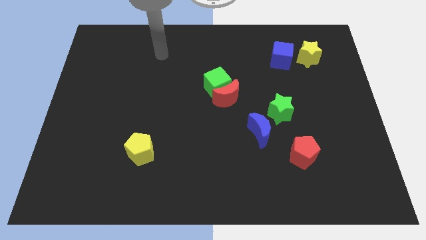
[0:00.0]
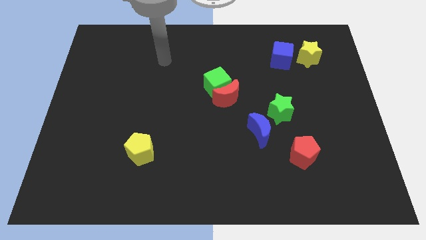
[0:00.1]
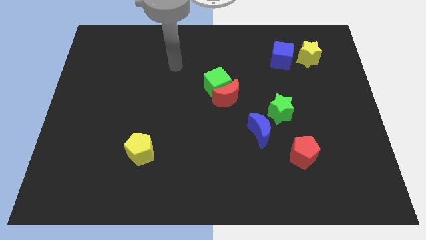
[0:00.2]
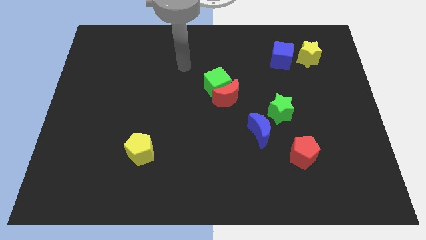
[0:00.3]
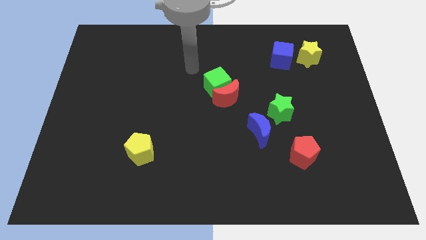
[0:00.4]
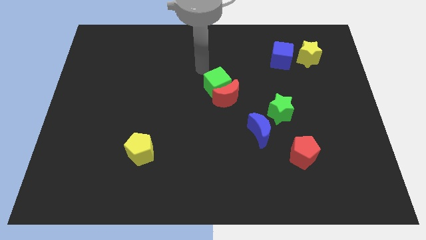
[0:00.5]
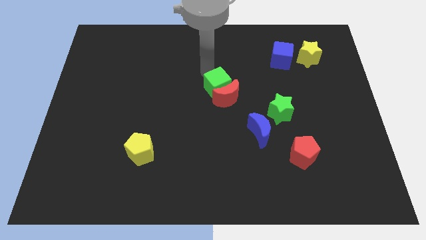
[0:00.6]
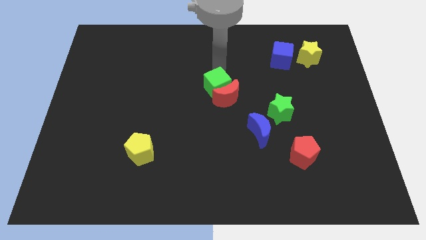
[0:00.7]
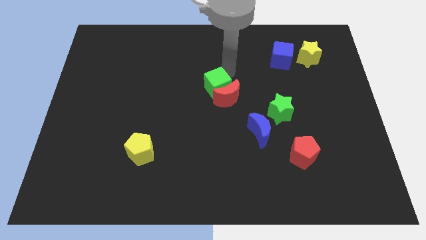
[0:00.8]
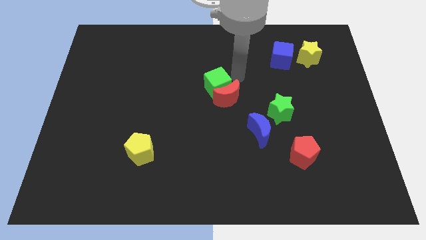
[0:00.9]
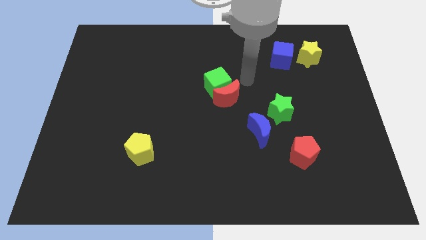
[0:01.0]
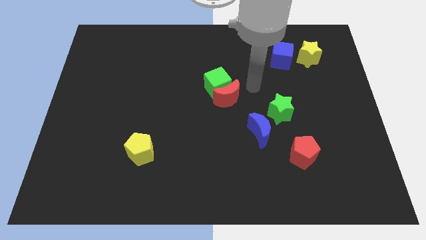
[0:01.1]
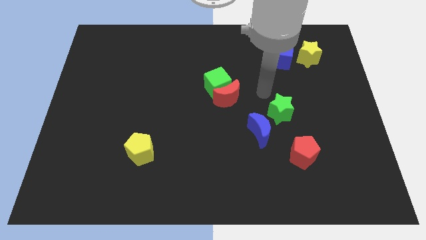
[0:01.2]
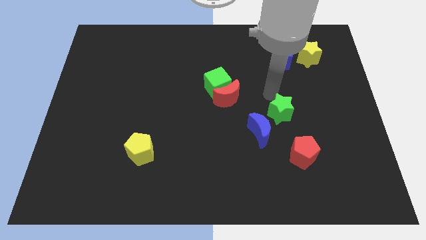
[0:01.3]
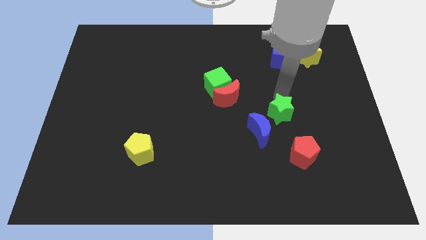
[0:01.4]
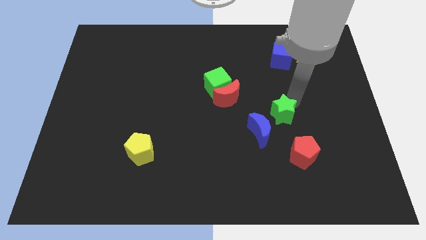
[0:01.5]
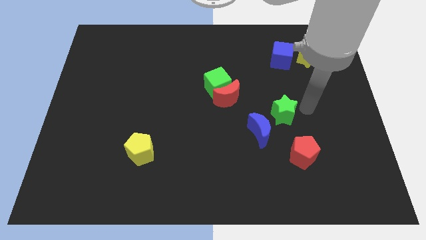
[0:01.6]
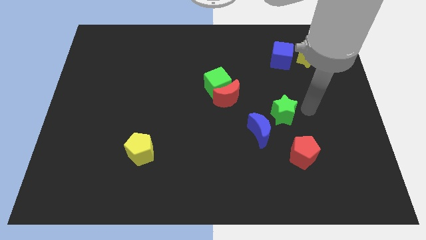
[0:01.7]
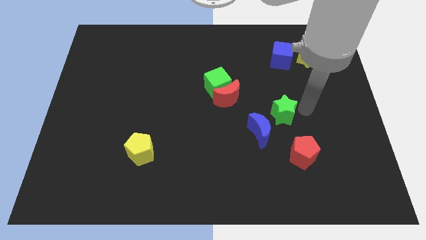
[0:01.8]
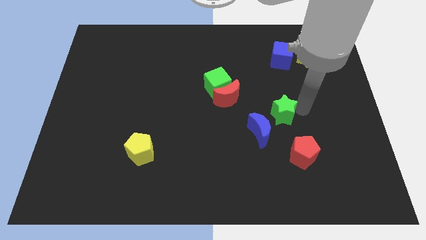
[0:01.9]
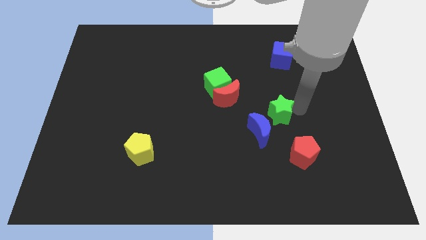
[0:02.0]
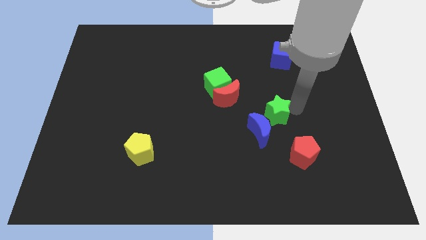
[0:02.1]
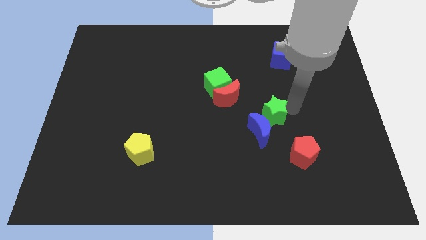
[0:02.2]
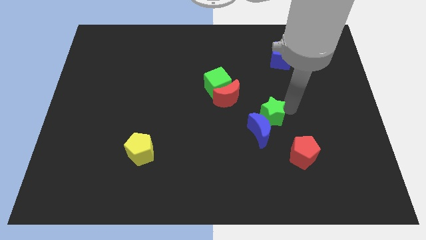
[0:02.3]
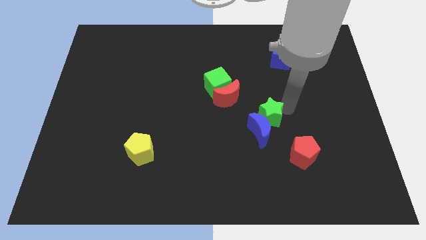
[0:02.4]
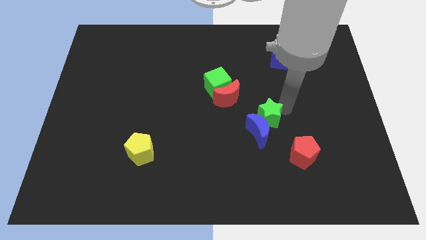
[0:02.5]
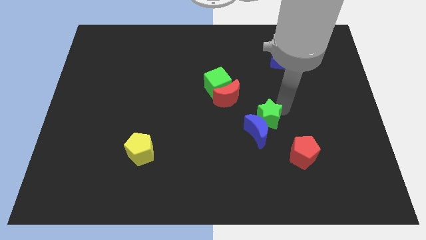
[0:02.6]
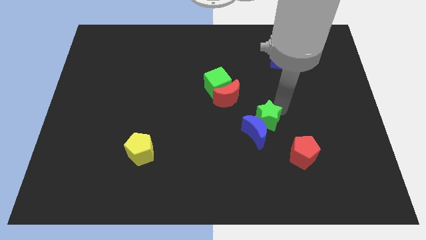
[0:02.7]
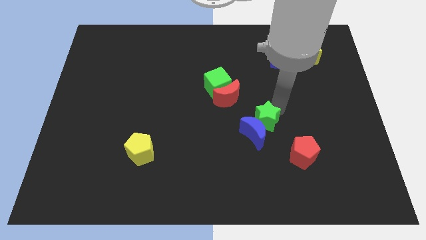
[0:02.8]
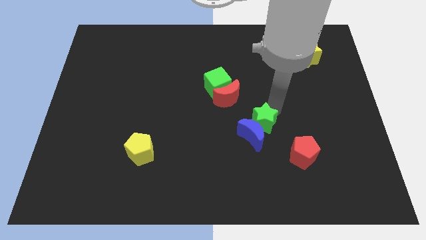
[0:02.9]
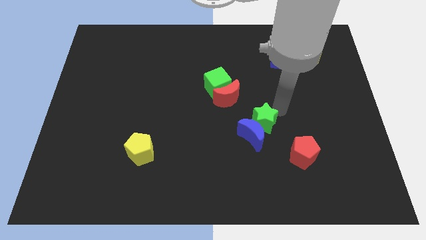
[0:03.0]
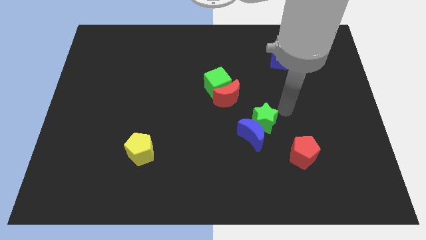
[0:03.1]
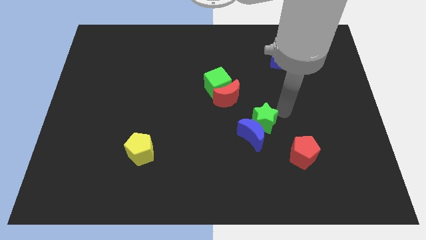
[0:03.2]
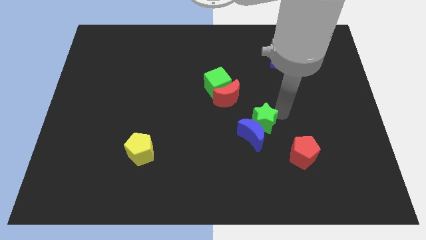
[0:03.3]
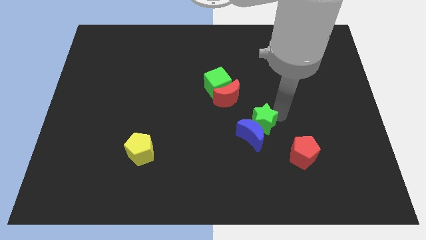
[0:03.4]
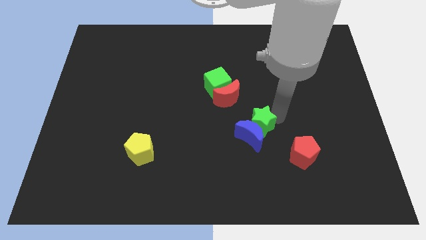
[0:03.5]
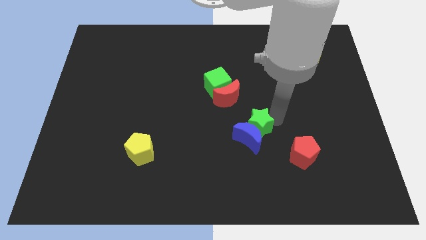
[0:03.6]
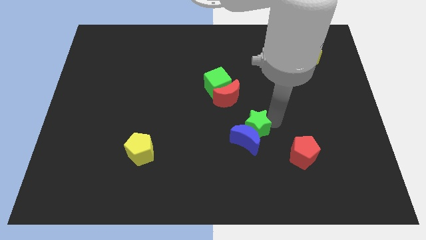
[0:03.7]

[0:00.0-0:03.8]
move the green star down and then to the left somewhat

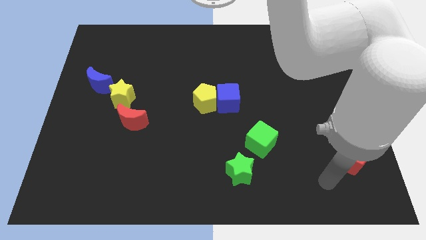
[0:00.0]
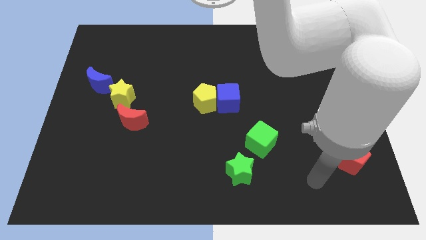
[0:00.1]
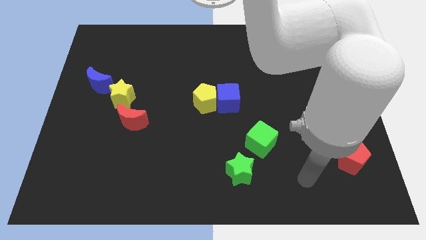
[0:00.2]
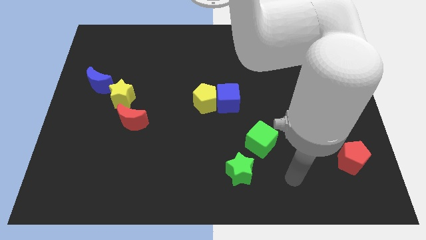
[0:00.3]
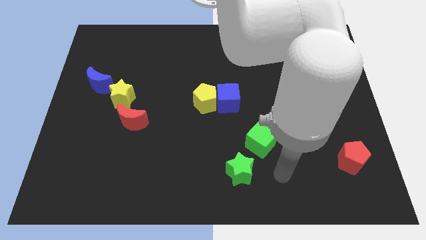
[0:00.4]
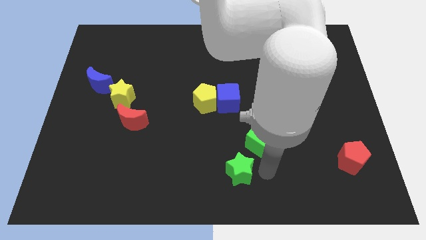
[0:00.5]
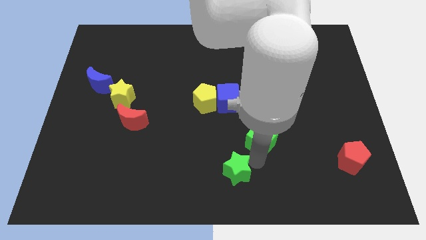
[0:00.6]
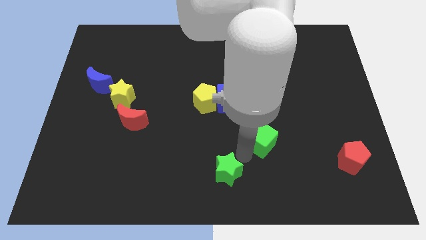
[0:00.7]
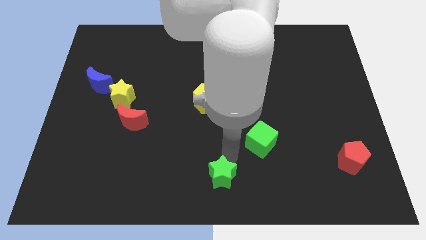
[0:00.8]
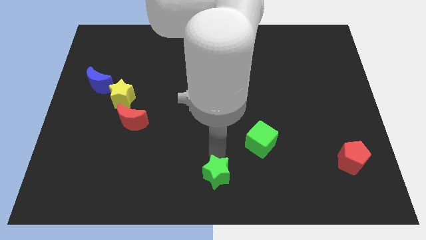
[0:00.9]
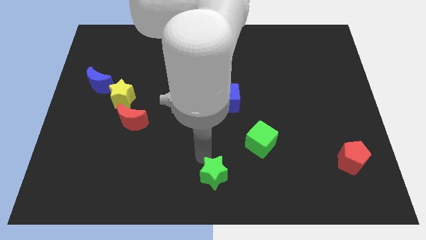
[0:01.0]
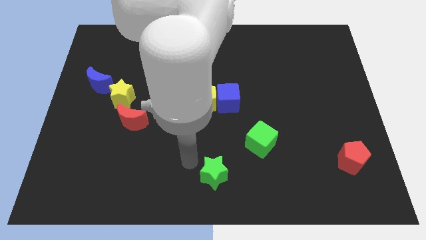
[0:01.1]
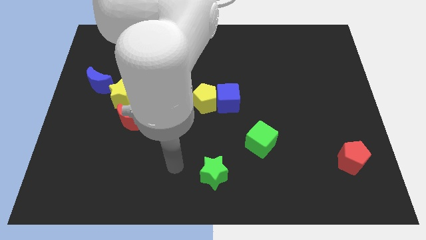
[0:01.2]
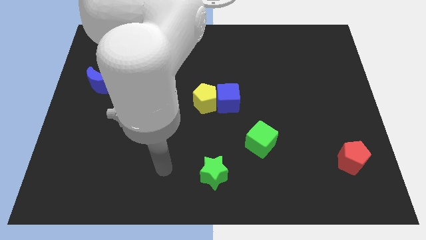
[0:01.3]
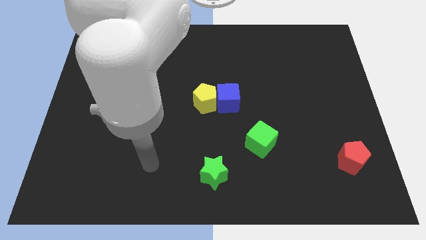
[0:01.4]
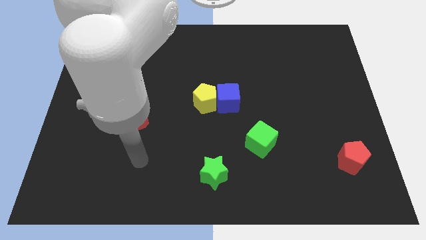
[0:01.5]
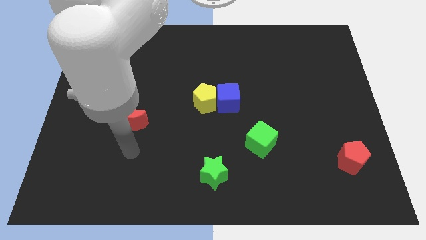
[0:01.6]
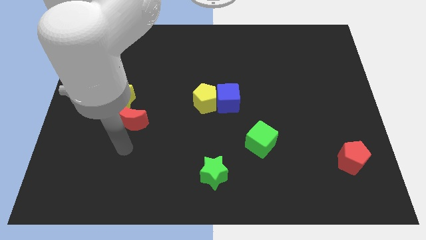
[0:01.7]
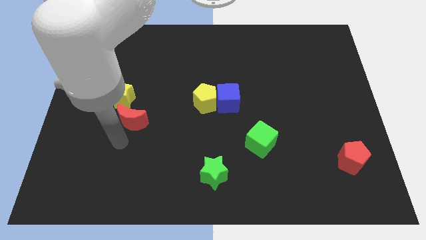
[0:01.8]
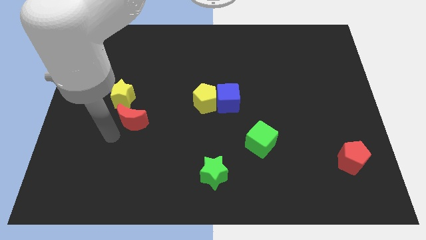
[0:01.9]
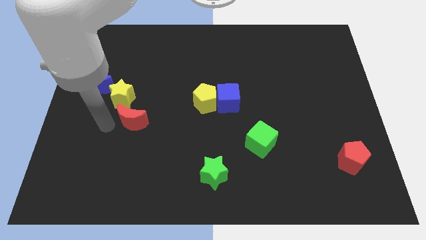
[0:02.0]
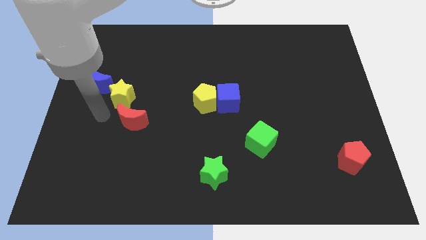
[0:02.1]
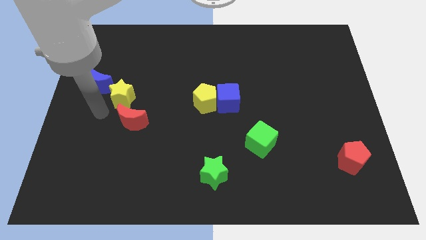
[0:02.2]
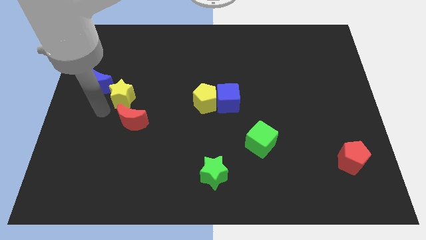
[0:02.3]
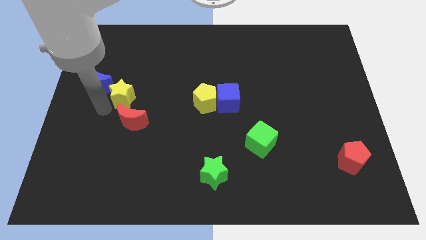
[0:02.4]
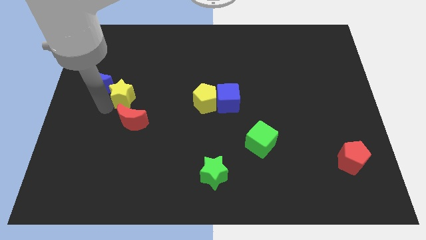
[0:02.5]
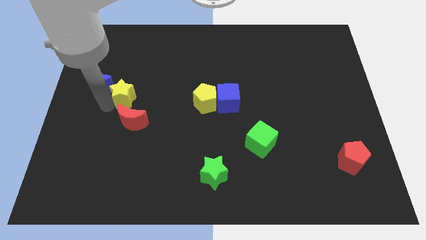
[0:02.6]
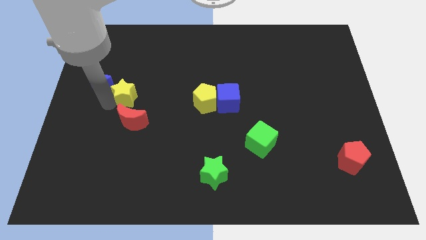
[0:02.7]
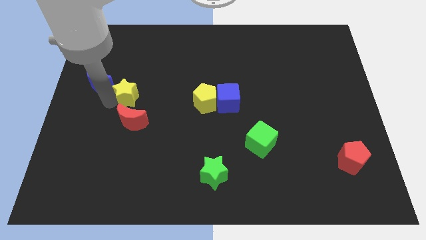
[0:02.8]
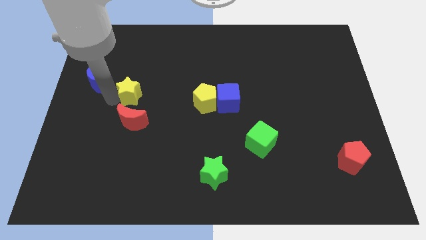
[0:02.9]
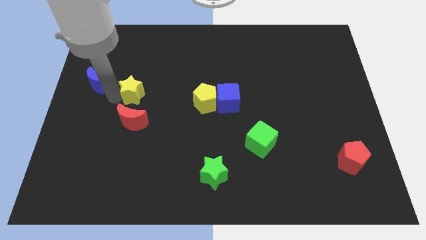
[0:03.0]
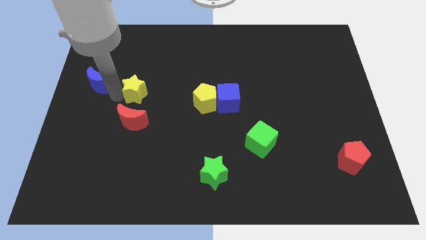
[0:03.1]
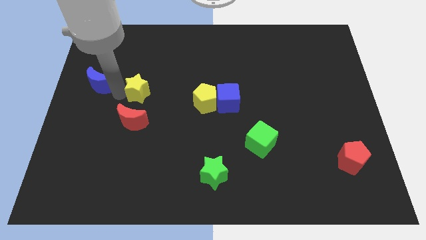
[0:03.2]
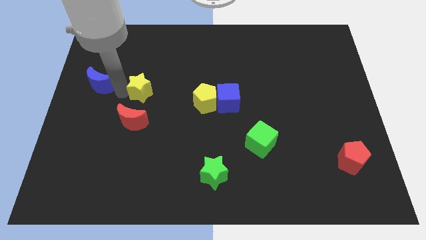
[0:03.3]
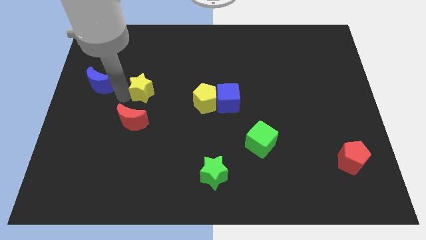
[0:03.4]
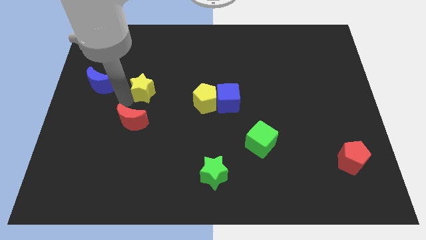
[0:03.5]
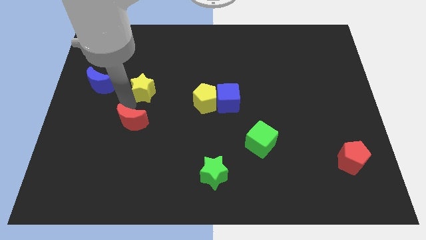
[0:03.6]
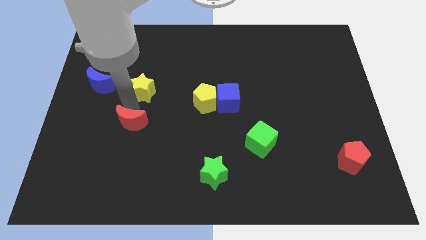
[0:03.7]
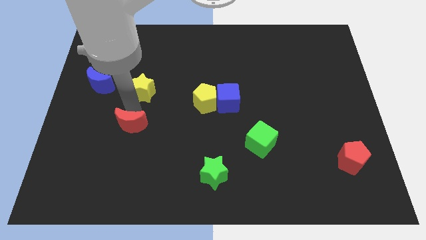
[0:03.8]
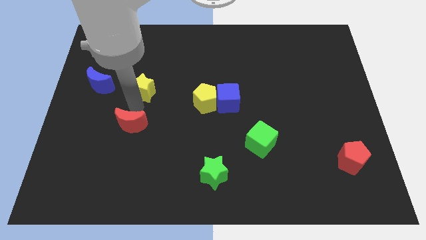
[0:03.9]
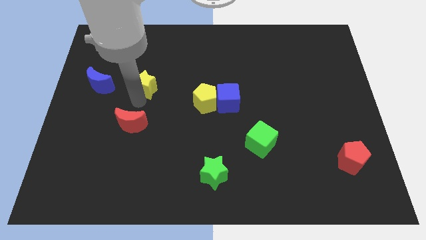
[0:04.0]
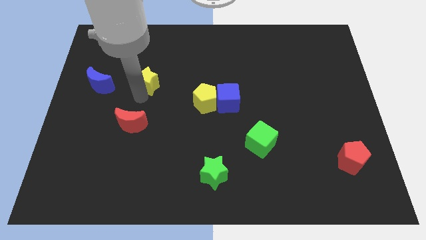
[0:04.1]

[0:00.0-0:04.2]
move the yellow star a little upwards and right
